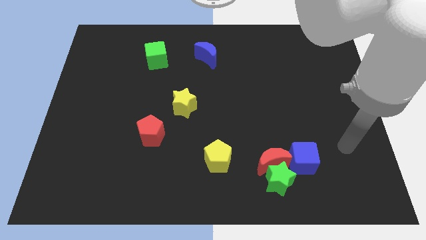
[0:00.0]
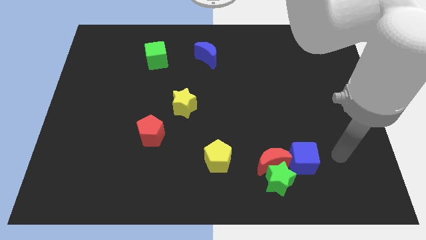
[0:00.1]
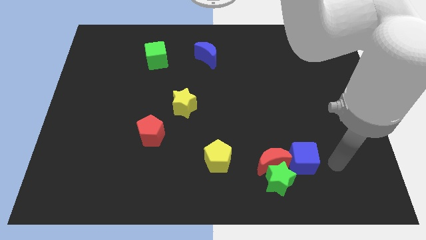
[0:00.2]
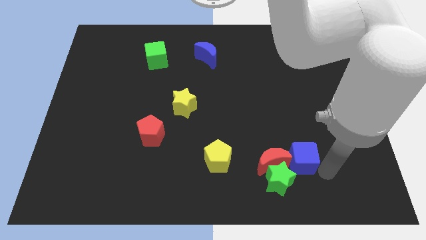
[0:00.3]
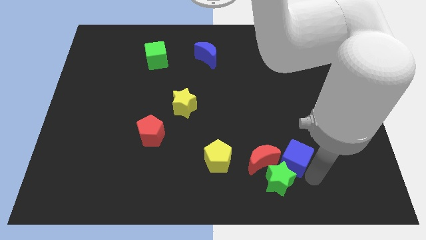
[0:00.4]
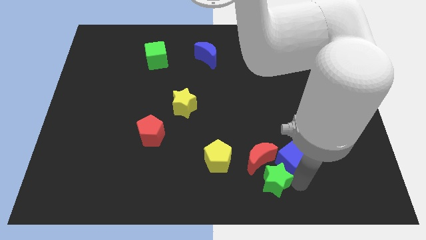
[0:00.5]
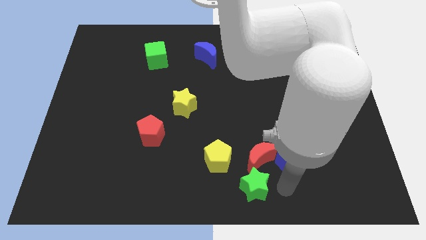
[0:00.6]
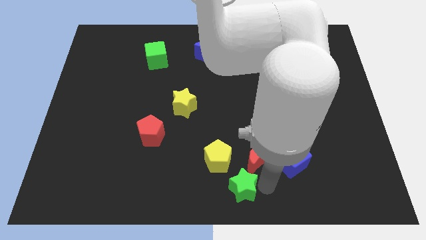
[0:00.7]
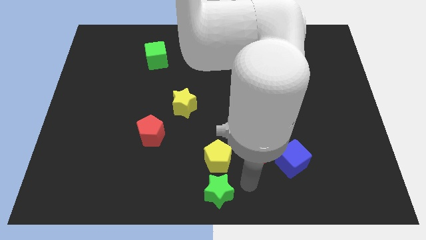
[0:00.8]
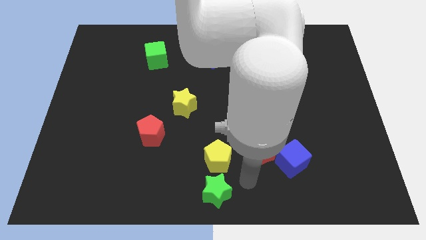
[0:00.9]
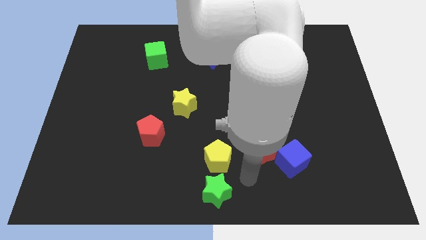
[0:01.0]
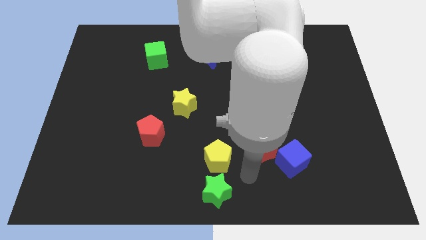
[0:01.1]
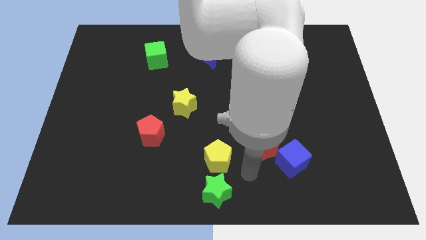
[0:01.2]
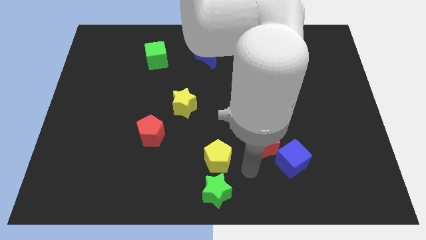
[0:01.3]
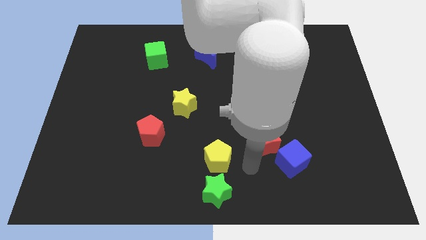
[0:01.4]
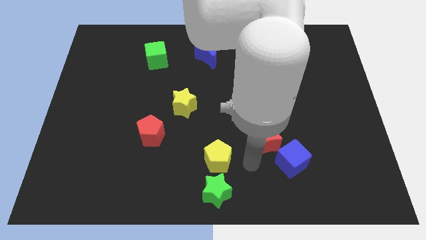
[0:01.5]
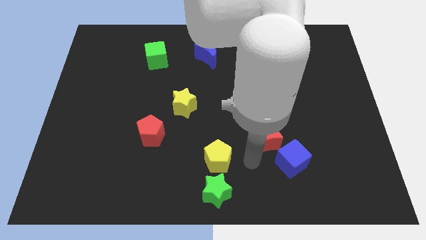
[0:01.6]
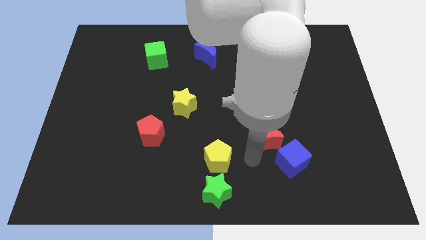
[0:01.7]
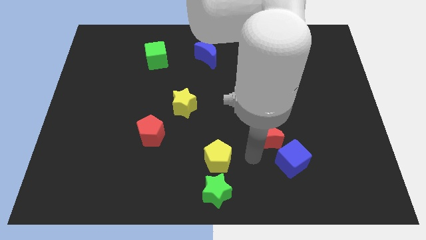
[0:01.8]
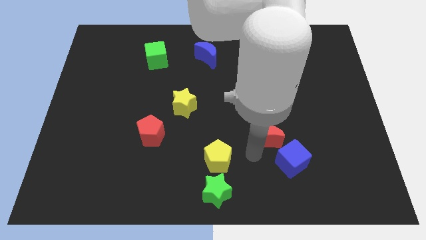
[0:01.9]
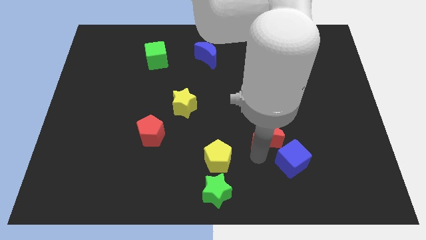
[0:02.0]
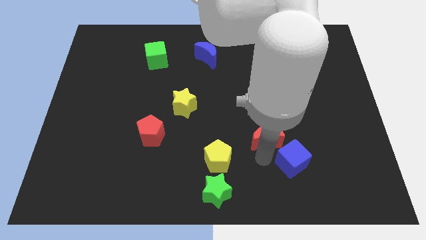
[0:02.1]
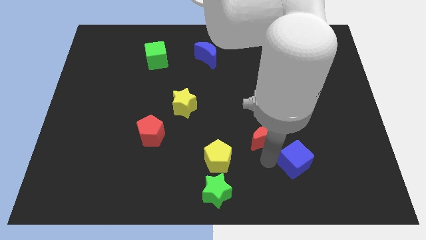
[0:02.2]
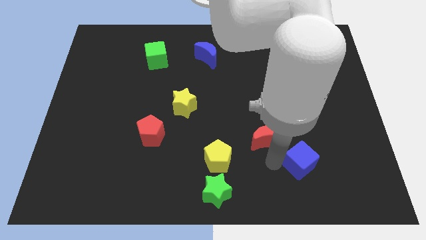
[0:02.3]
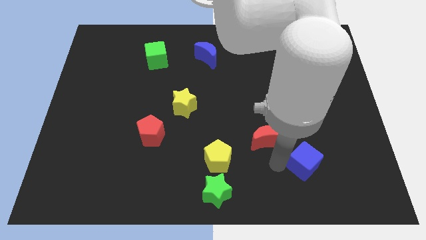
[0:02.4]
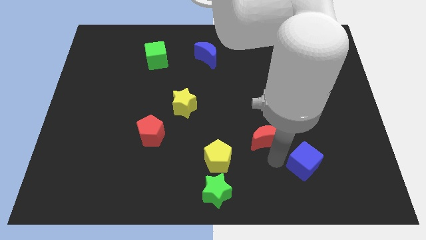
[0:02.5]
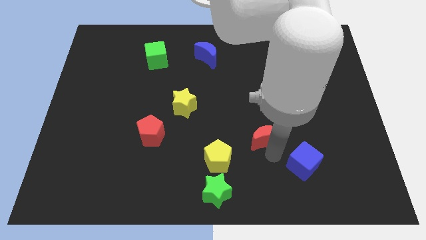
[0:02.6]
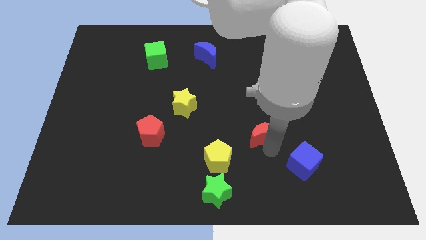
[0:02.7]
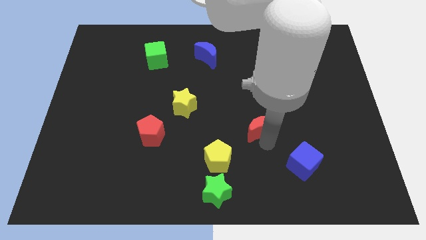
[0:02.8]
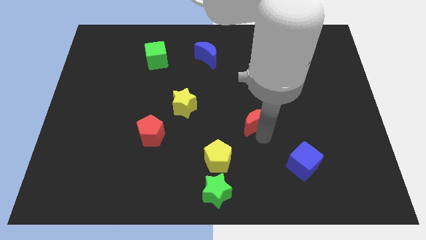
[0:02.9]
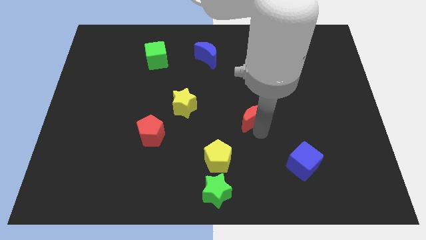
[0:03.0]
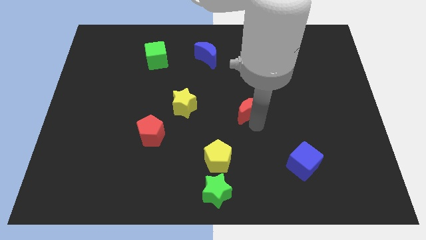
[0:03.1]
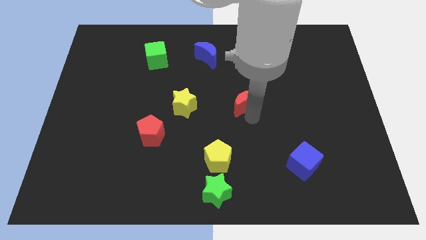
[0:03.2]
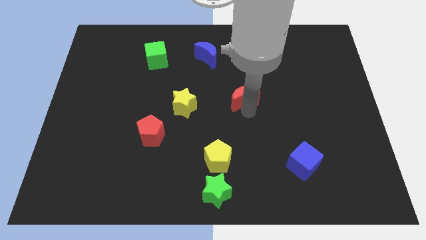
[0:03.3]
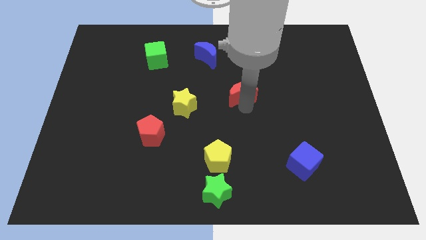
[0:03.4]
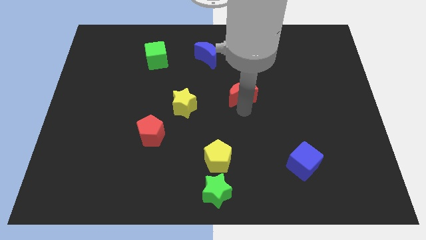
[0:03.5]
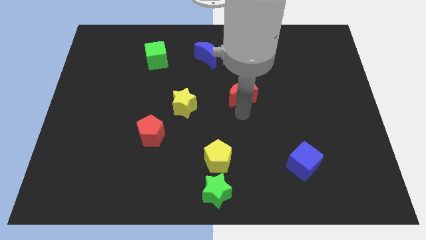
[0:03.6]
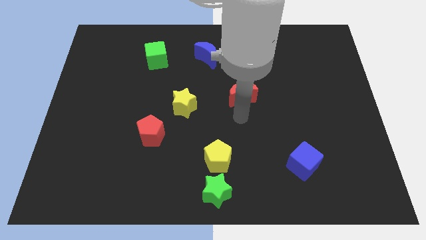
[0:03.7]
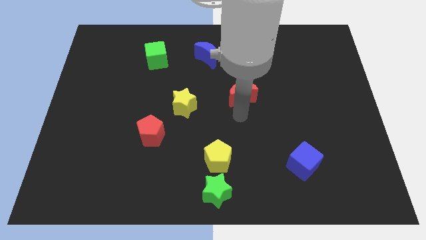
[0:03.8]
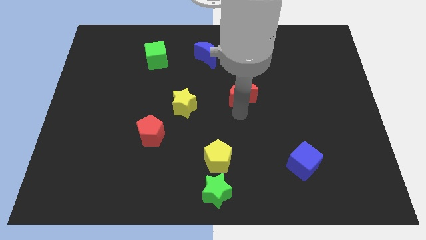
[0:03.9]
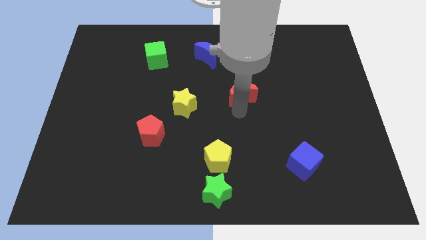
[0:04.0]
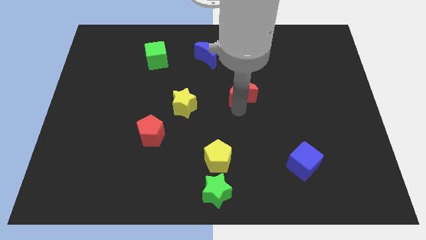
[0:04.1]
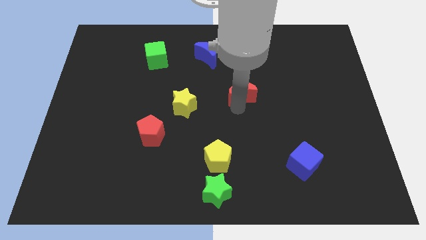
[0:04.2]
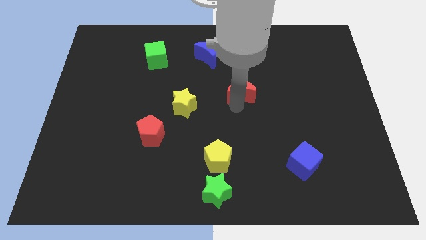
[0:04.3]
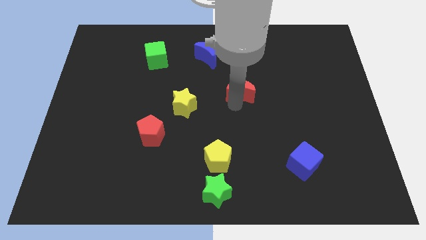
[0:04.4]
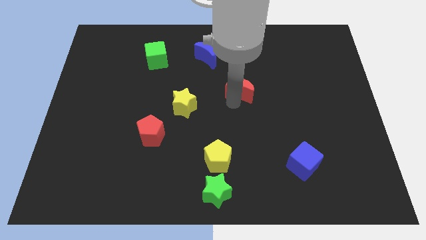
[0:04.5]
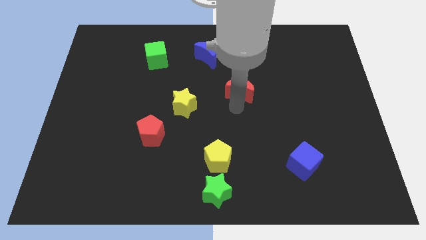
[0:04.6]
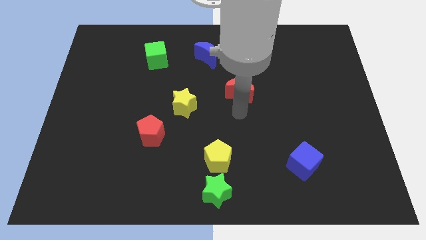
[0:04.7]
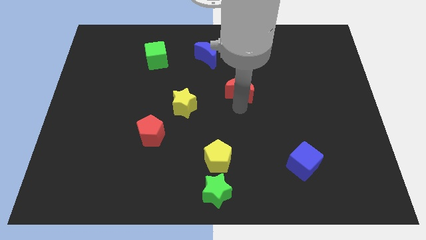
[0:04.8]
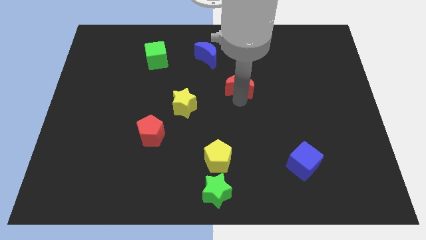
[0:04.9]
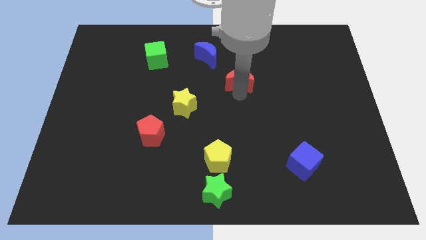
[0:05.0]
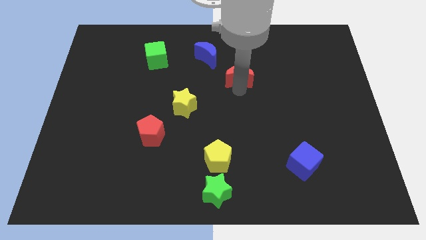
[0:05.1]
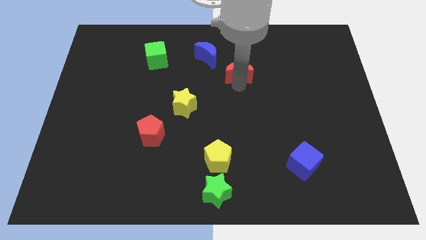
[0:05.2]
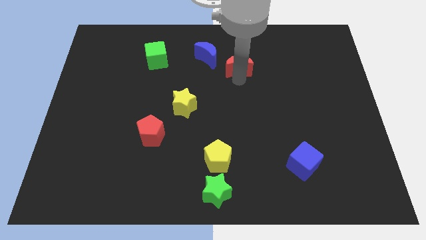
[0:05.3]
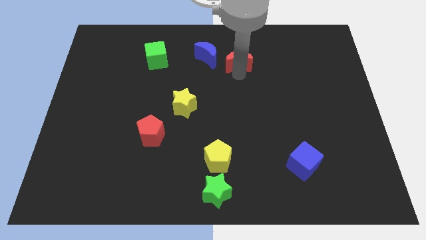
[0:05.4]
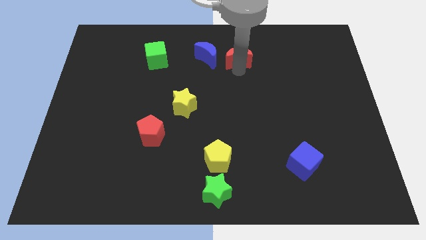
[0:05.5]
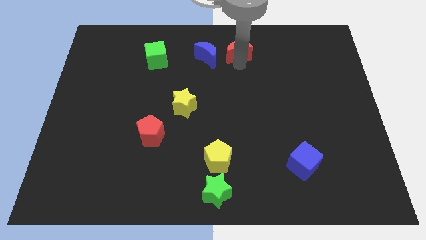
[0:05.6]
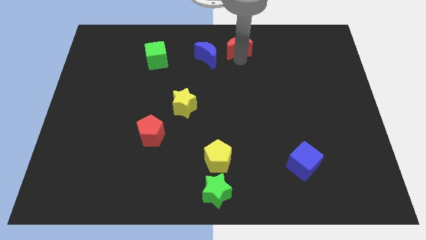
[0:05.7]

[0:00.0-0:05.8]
move the red moon to the top

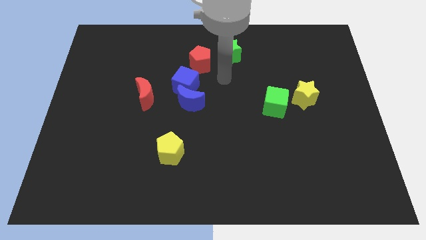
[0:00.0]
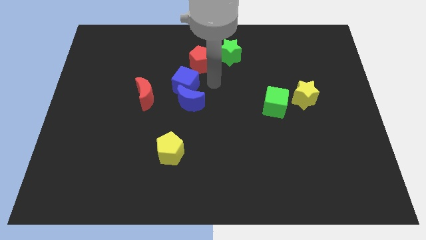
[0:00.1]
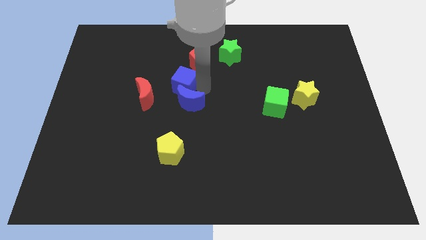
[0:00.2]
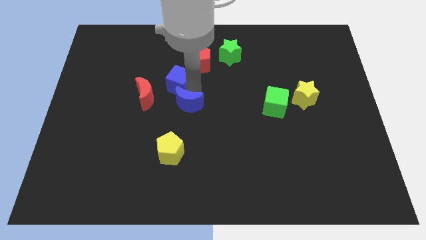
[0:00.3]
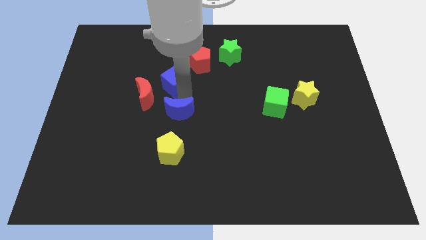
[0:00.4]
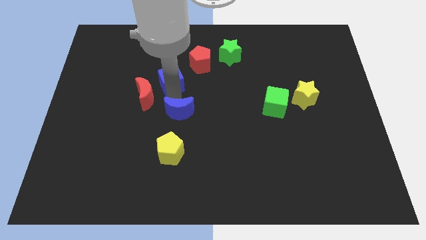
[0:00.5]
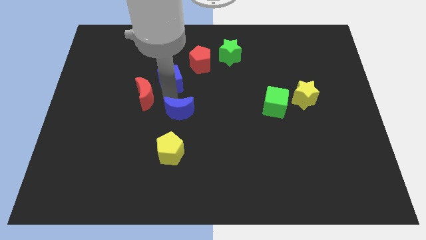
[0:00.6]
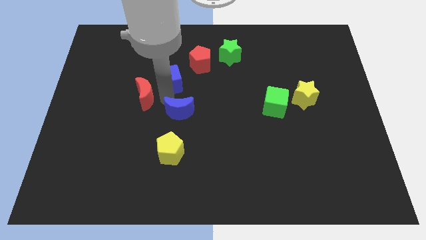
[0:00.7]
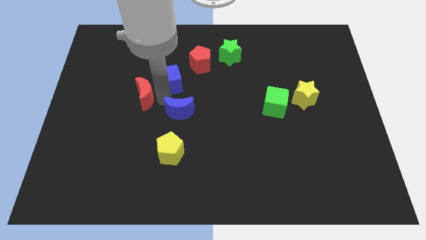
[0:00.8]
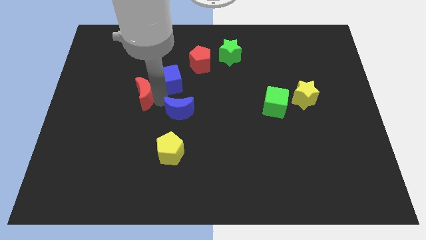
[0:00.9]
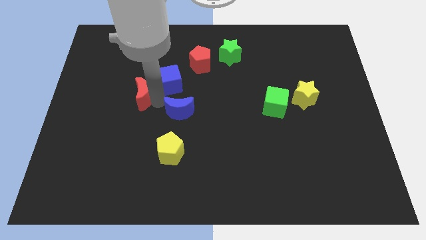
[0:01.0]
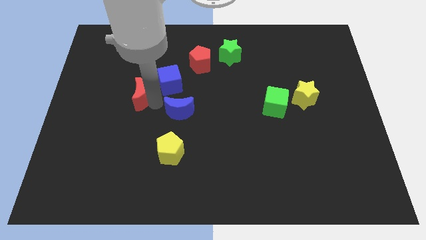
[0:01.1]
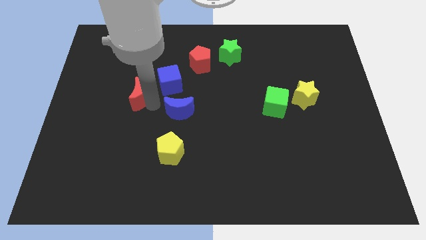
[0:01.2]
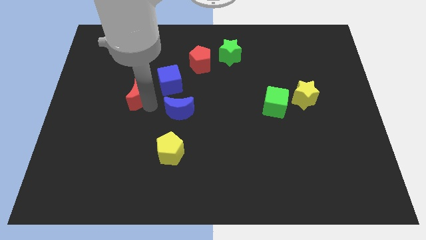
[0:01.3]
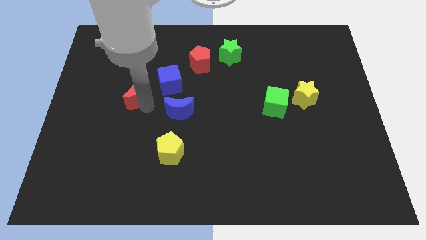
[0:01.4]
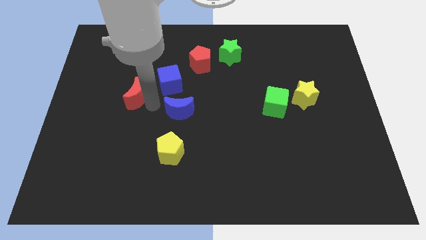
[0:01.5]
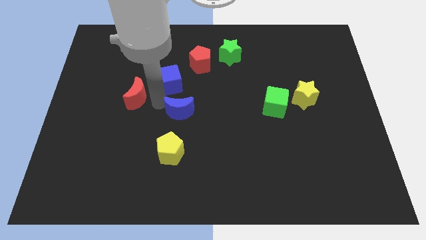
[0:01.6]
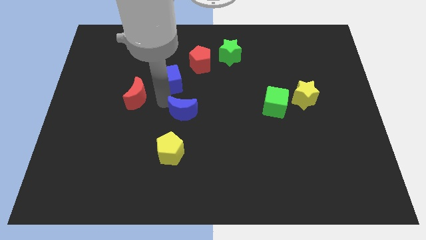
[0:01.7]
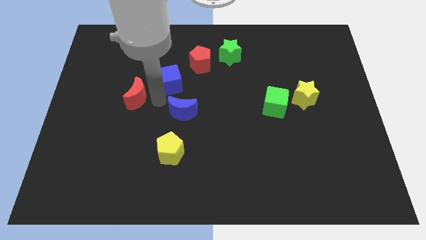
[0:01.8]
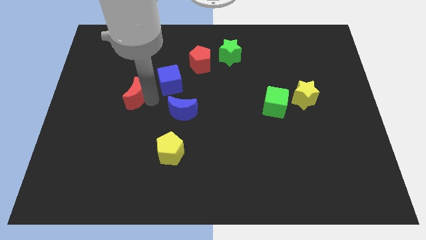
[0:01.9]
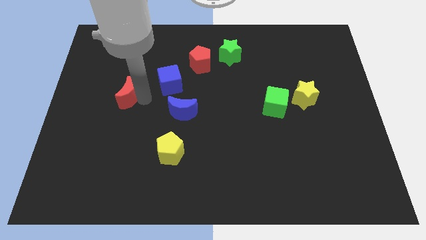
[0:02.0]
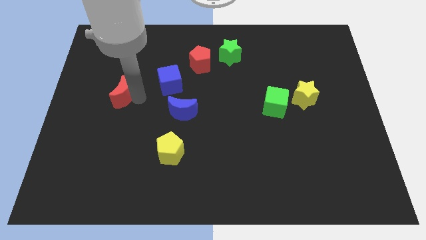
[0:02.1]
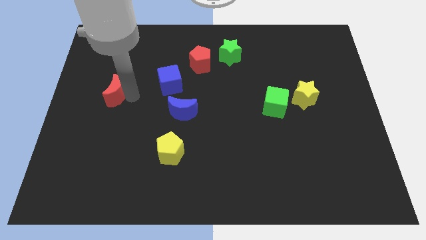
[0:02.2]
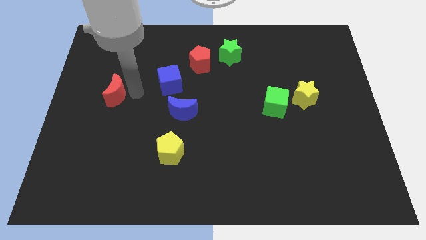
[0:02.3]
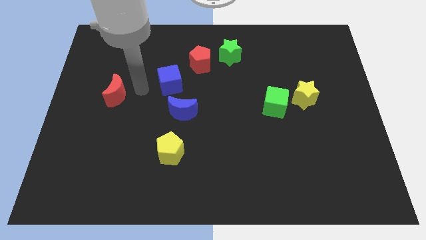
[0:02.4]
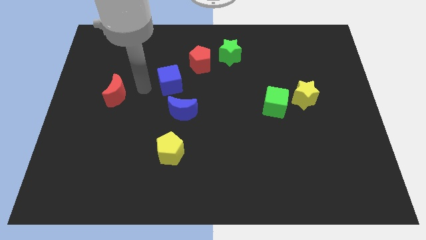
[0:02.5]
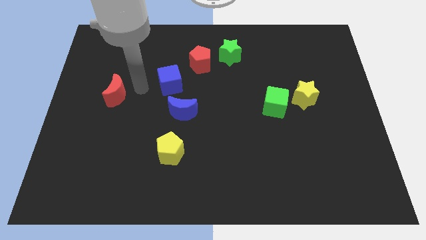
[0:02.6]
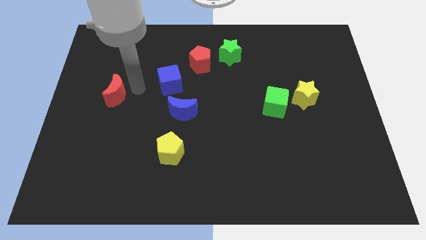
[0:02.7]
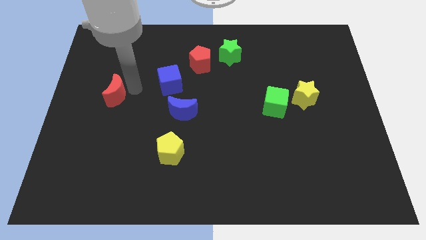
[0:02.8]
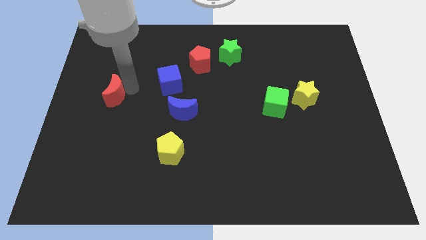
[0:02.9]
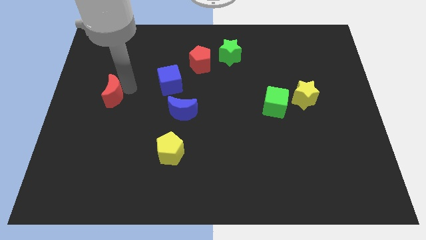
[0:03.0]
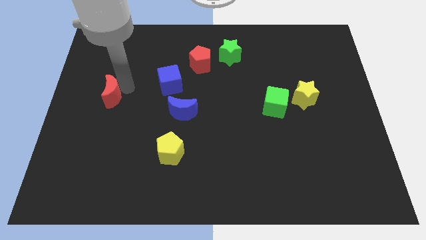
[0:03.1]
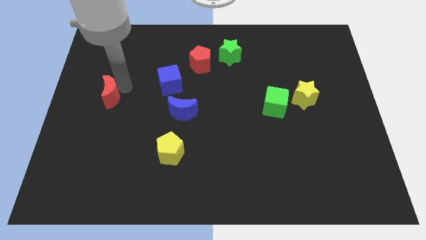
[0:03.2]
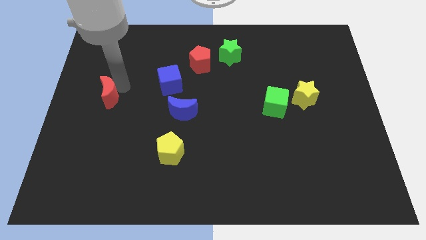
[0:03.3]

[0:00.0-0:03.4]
move the red moon to the left side
